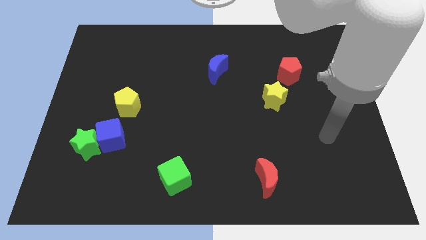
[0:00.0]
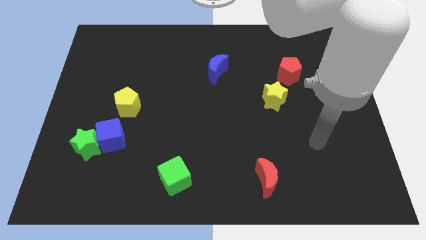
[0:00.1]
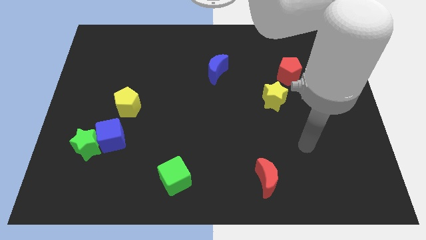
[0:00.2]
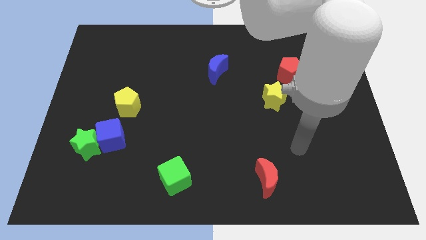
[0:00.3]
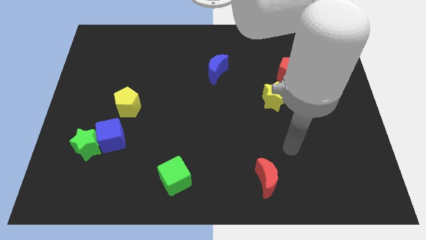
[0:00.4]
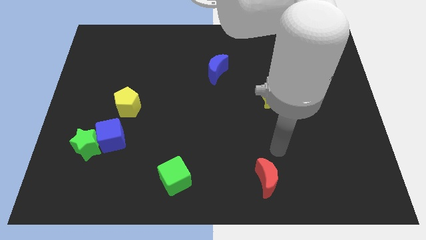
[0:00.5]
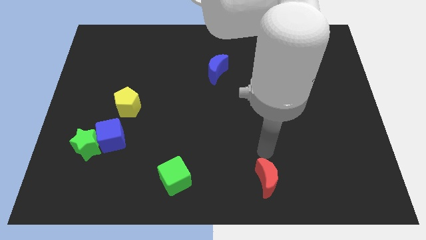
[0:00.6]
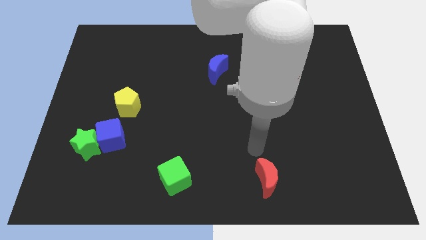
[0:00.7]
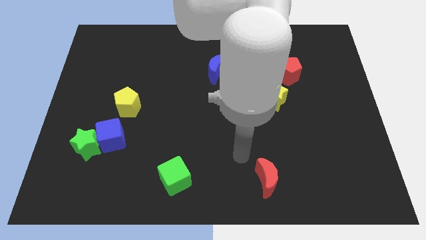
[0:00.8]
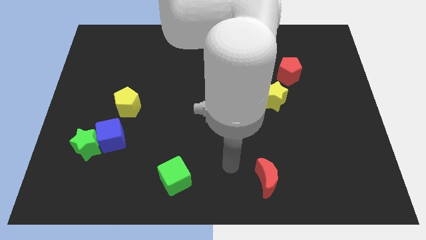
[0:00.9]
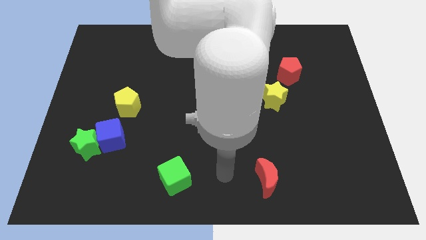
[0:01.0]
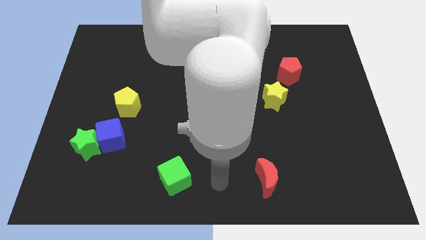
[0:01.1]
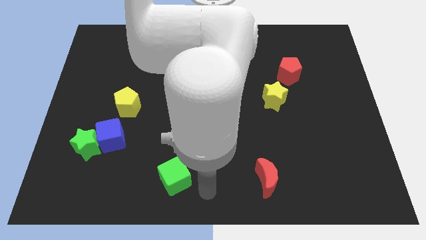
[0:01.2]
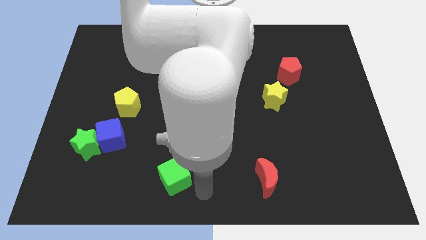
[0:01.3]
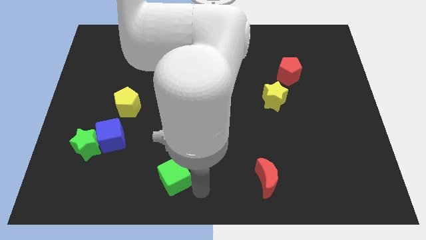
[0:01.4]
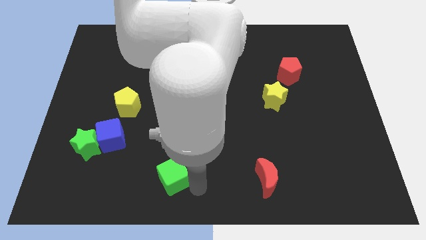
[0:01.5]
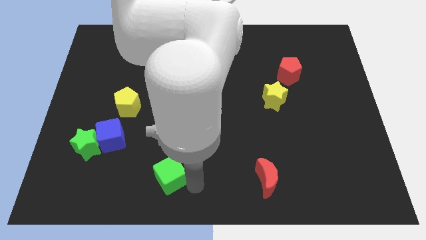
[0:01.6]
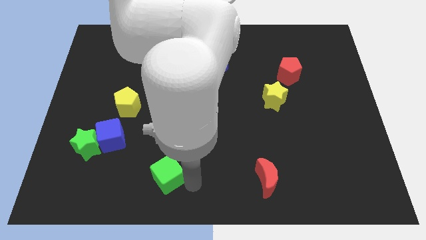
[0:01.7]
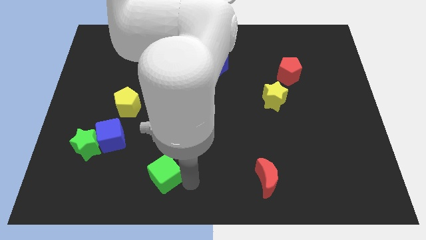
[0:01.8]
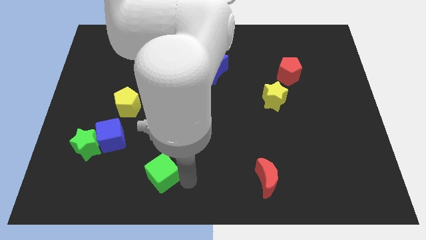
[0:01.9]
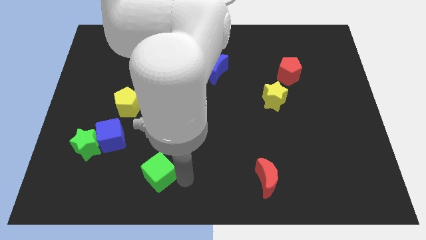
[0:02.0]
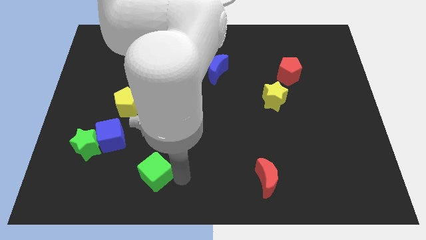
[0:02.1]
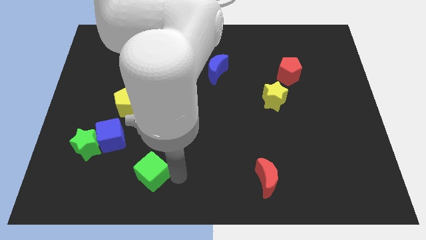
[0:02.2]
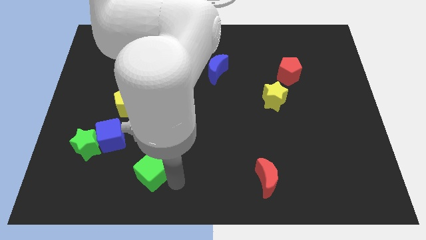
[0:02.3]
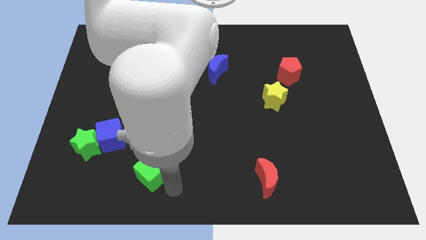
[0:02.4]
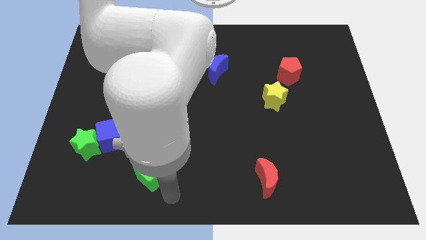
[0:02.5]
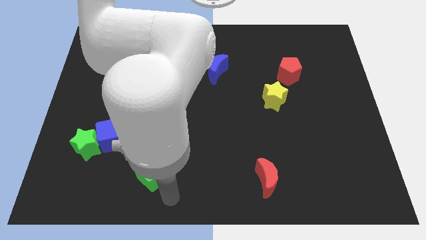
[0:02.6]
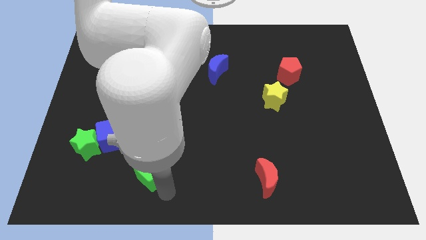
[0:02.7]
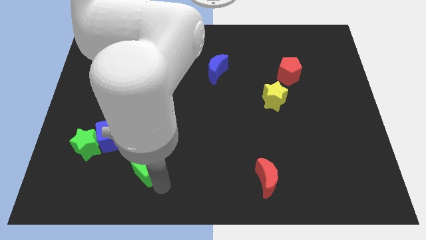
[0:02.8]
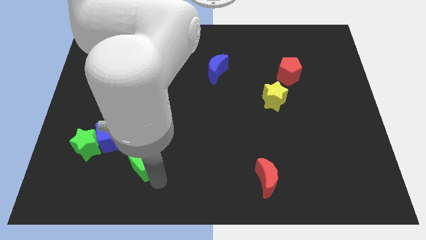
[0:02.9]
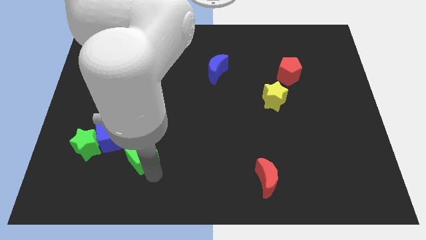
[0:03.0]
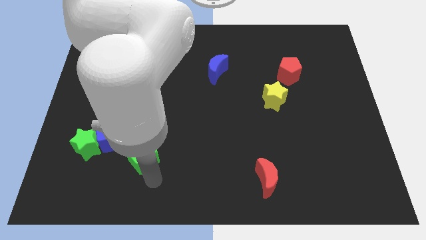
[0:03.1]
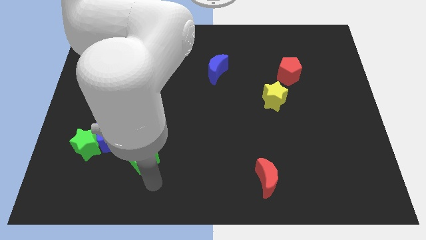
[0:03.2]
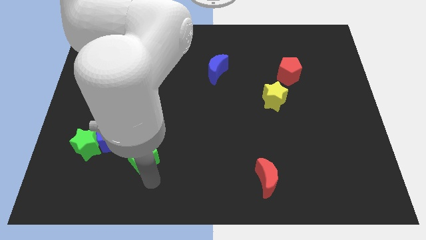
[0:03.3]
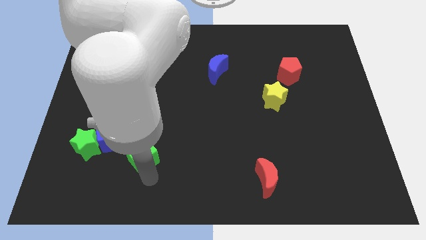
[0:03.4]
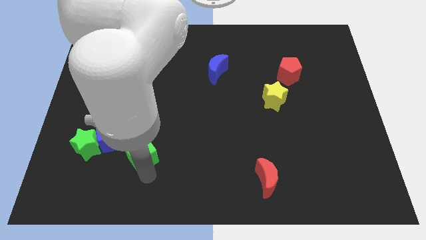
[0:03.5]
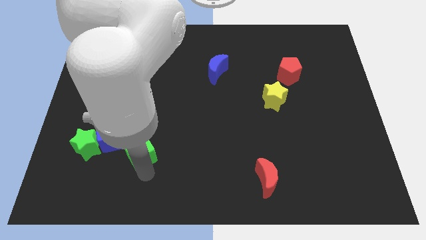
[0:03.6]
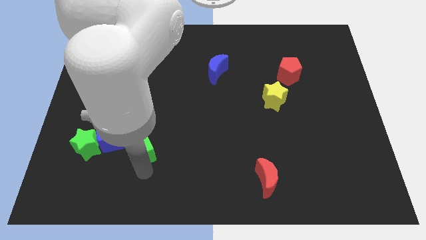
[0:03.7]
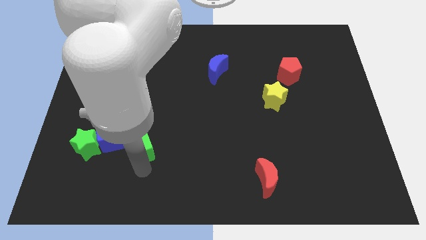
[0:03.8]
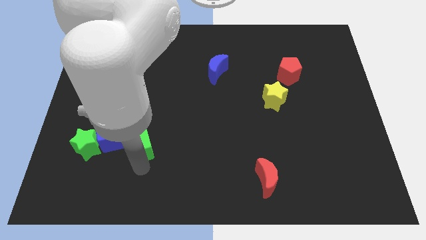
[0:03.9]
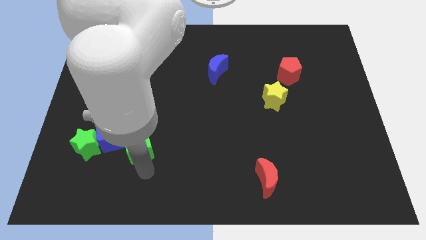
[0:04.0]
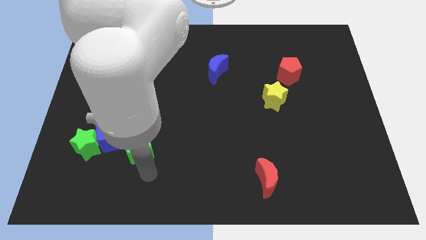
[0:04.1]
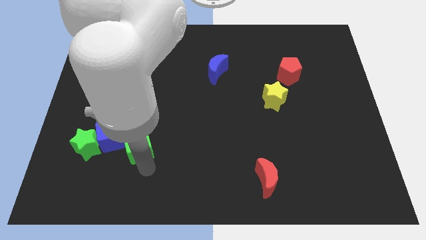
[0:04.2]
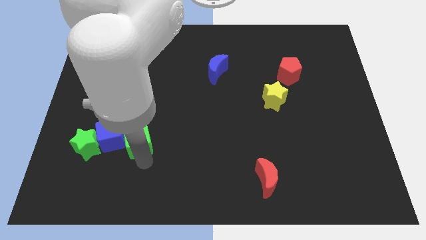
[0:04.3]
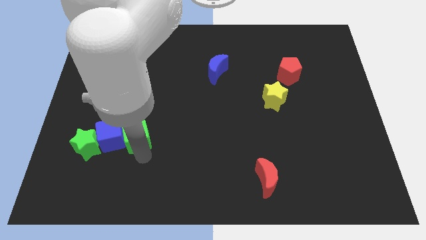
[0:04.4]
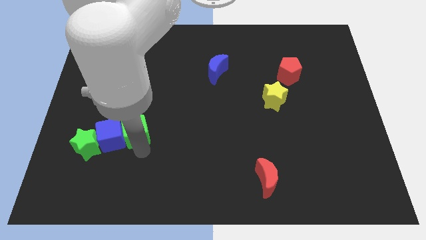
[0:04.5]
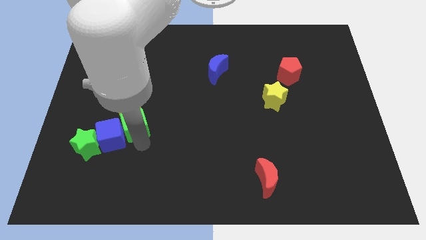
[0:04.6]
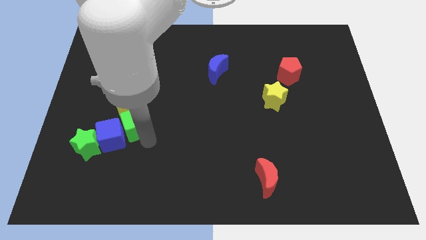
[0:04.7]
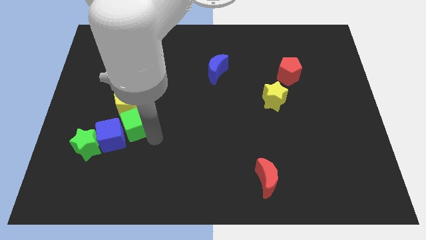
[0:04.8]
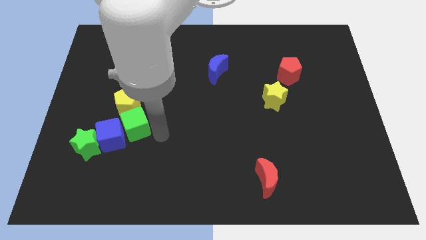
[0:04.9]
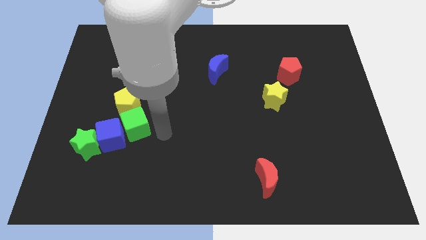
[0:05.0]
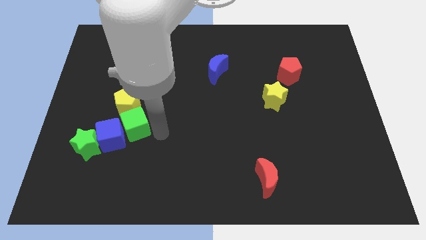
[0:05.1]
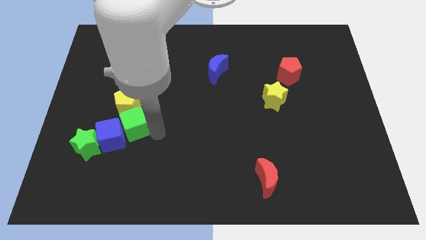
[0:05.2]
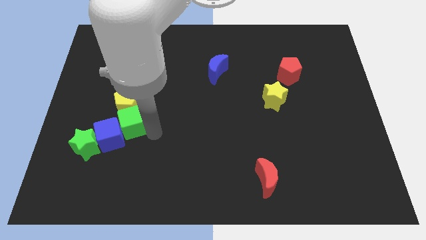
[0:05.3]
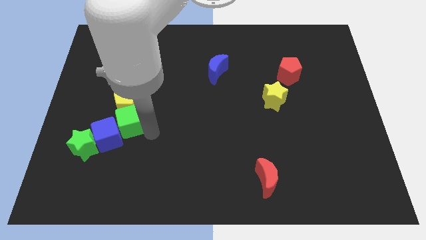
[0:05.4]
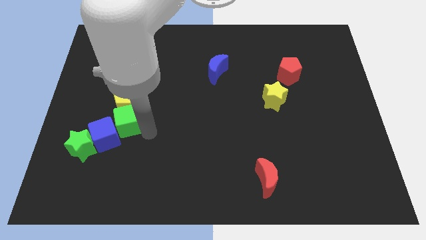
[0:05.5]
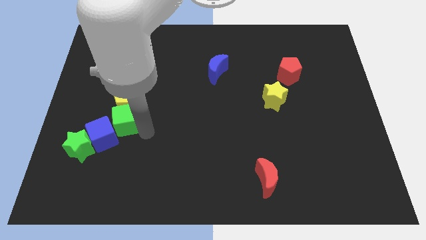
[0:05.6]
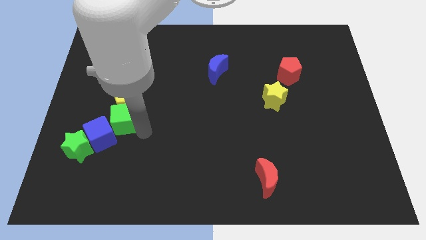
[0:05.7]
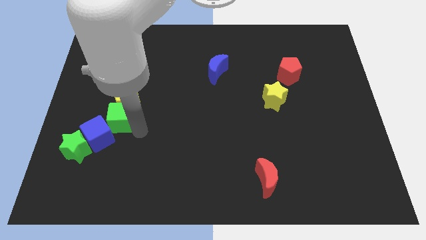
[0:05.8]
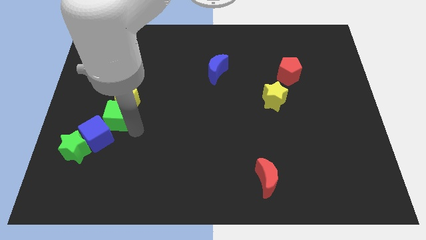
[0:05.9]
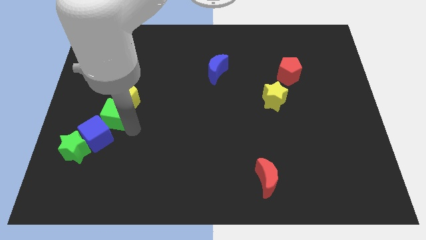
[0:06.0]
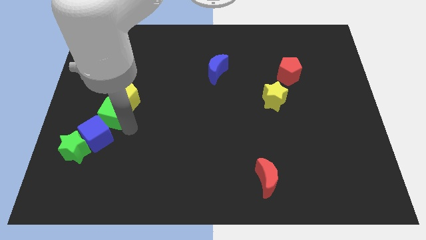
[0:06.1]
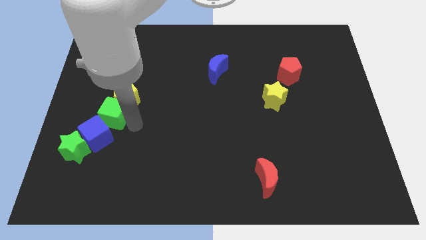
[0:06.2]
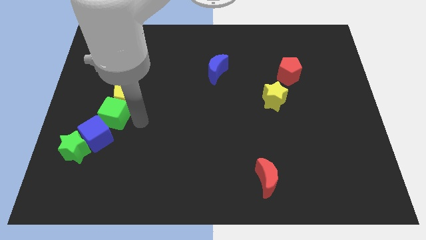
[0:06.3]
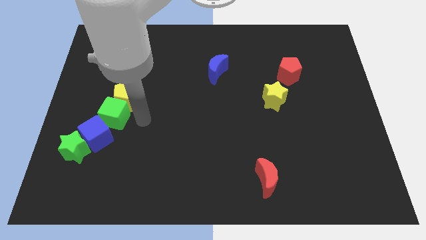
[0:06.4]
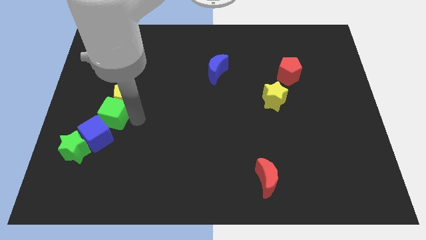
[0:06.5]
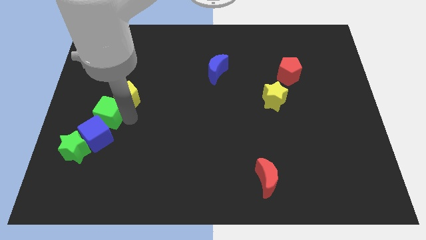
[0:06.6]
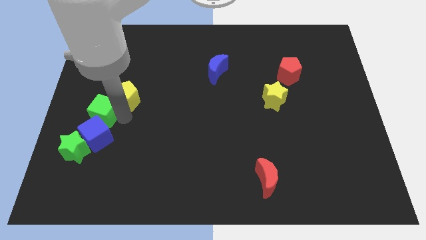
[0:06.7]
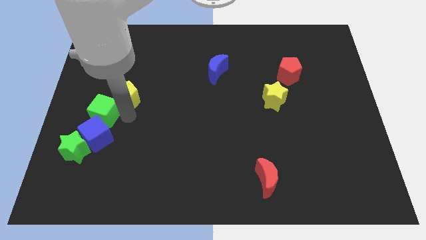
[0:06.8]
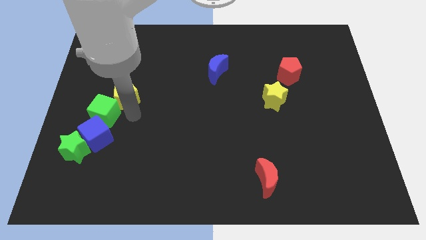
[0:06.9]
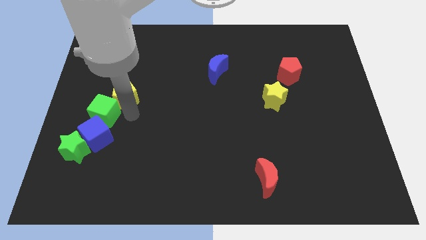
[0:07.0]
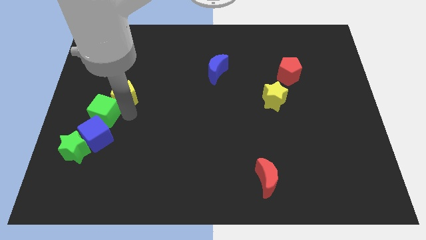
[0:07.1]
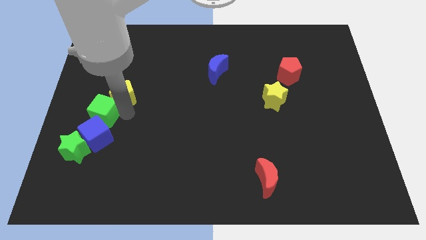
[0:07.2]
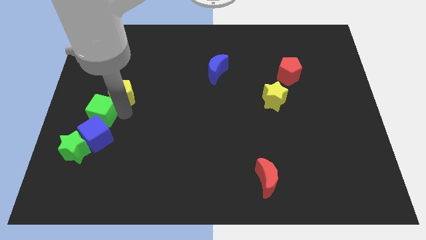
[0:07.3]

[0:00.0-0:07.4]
put the green cube to the left side of the board

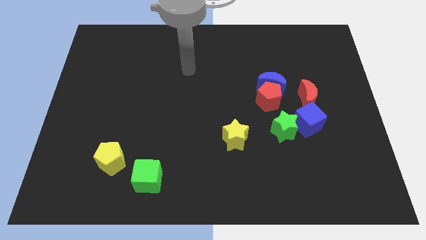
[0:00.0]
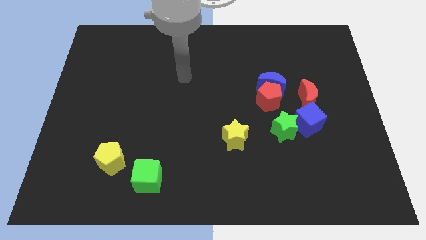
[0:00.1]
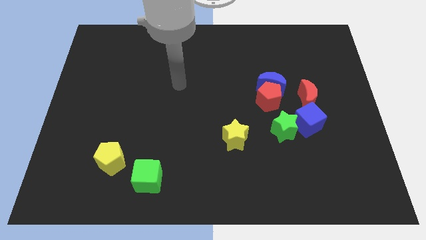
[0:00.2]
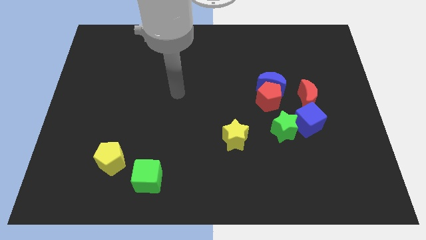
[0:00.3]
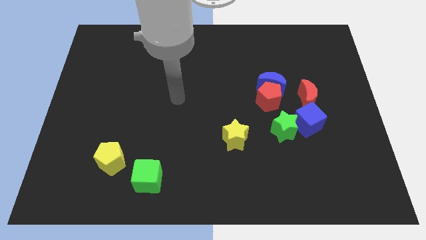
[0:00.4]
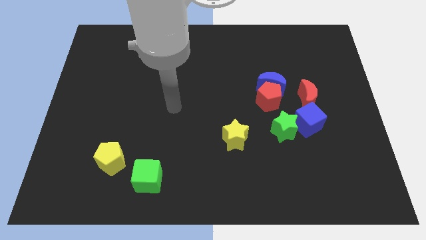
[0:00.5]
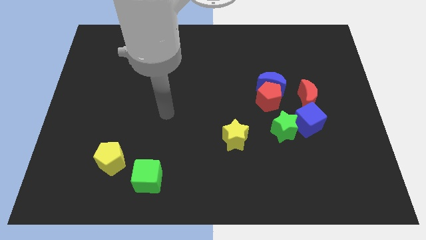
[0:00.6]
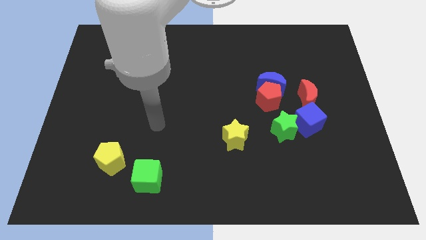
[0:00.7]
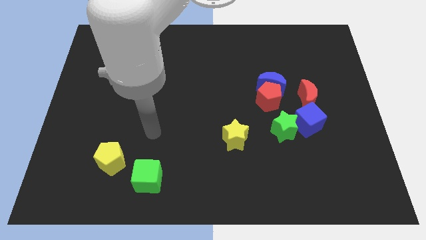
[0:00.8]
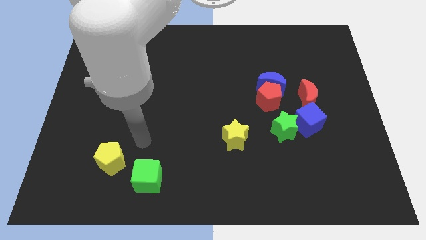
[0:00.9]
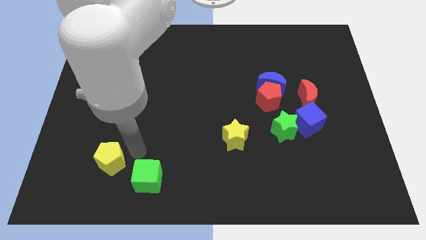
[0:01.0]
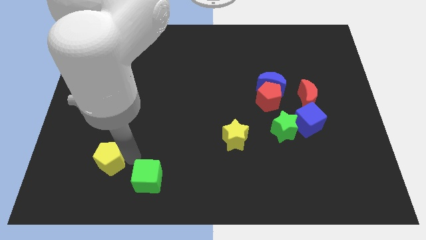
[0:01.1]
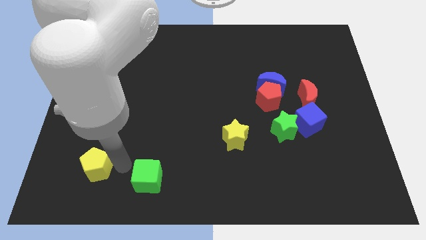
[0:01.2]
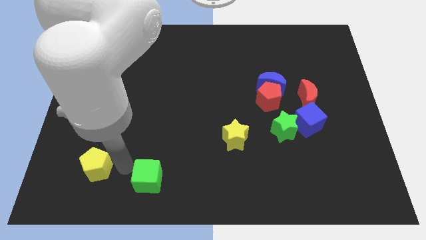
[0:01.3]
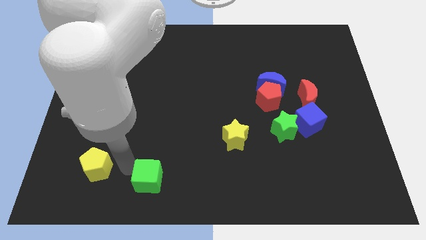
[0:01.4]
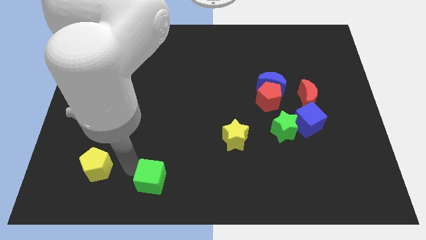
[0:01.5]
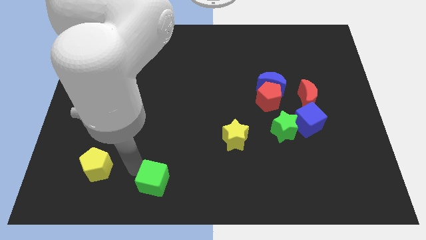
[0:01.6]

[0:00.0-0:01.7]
put the green cube to the bottom side
